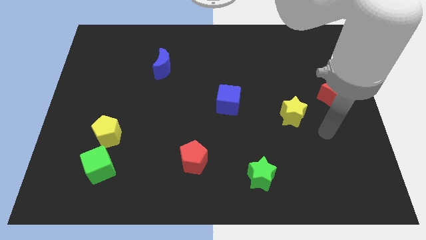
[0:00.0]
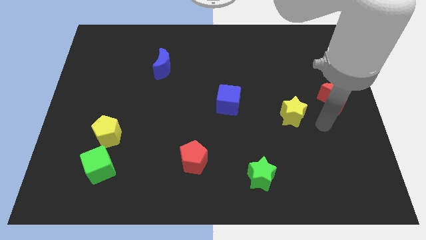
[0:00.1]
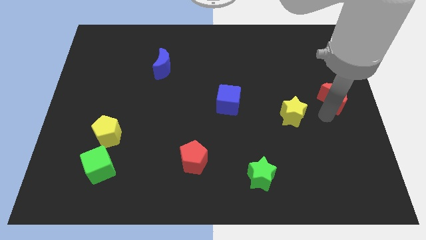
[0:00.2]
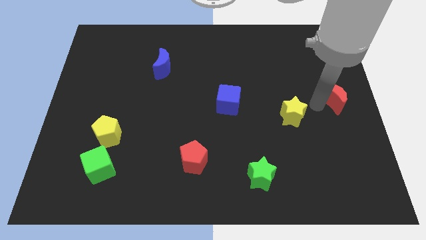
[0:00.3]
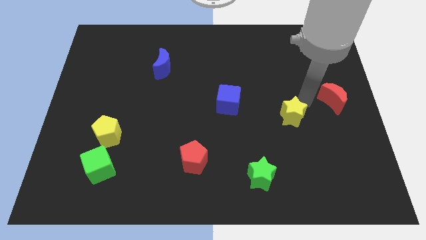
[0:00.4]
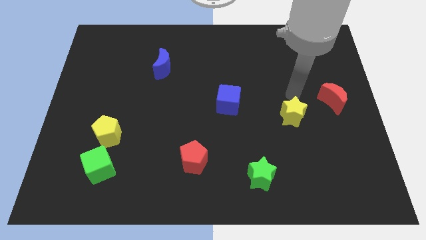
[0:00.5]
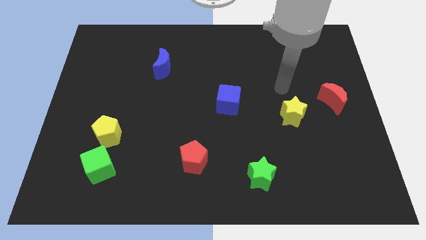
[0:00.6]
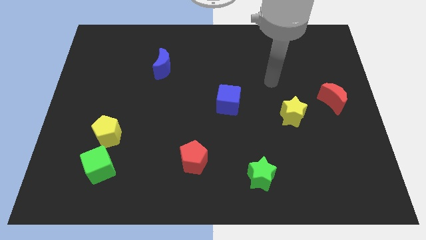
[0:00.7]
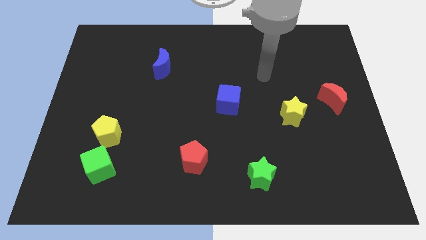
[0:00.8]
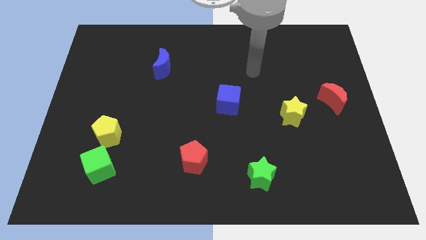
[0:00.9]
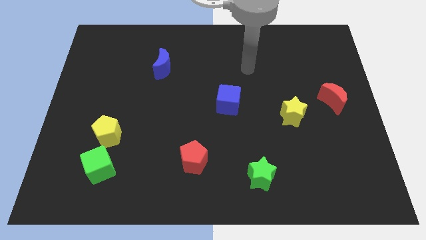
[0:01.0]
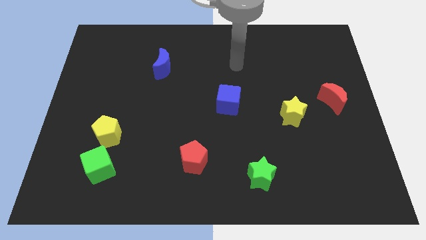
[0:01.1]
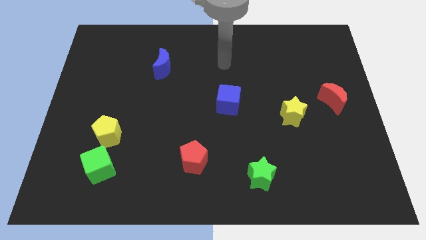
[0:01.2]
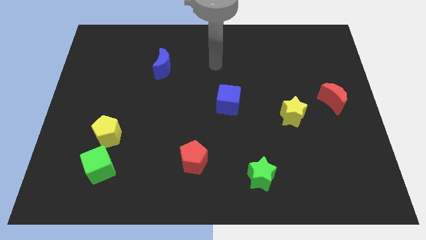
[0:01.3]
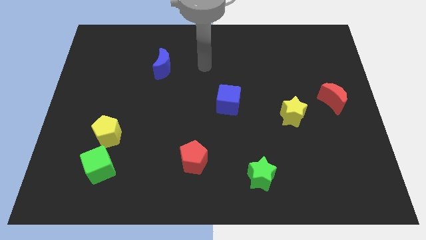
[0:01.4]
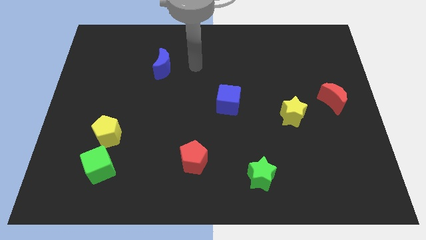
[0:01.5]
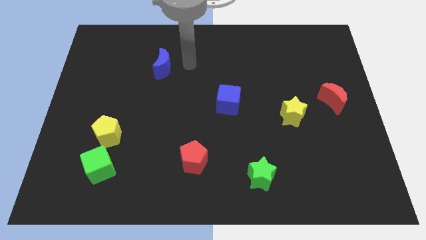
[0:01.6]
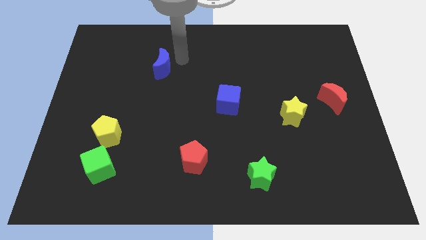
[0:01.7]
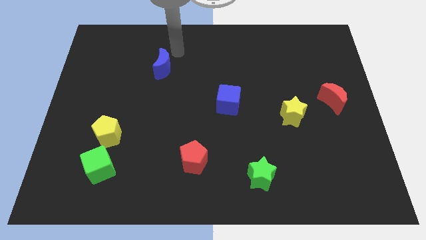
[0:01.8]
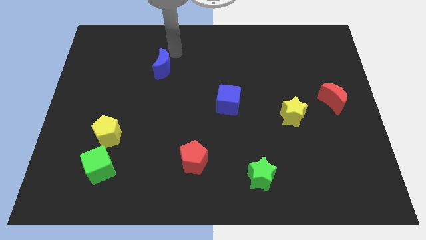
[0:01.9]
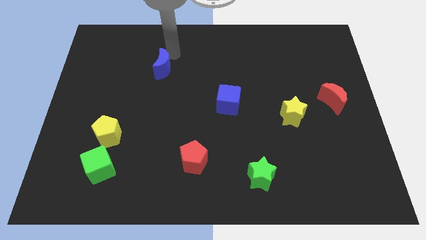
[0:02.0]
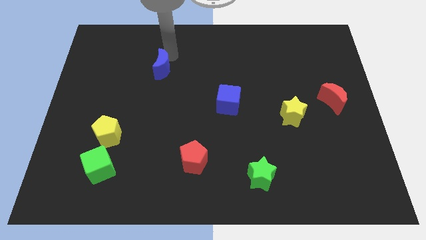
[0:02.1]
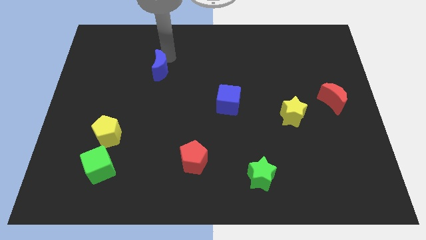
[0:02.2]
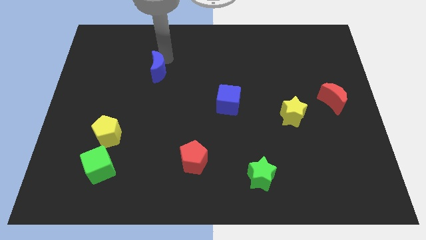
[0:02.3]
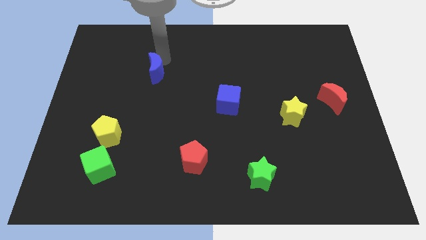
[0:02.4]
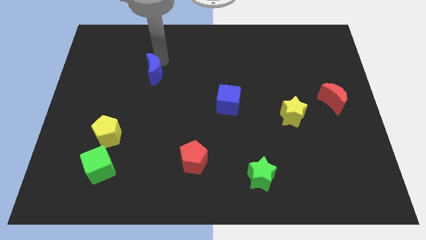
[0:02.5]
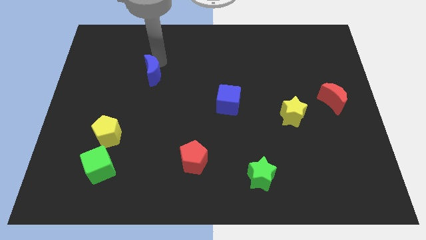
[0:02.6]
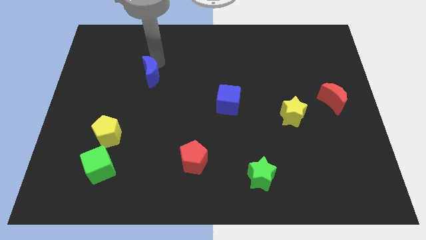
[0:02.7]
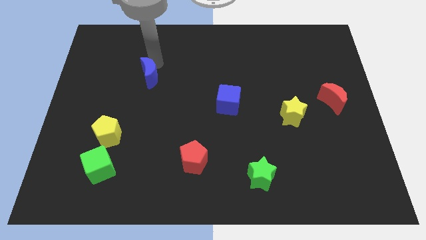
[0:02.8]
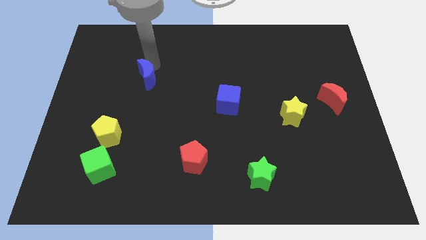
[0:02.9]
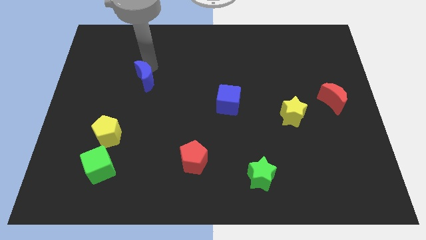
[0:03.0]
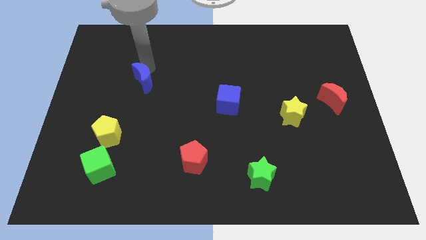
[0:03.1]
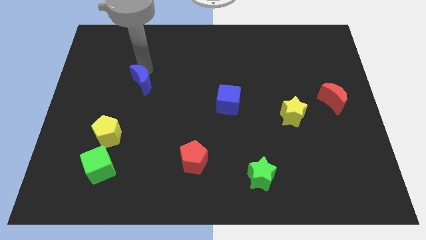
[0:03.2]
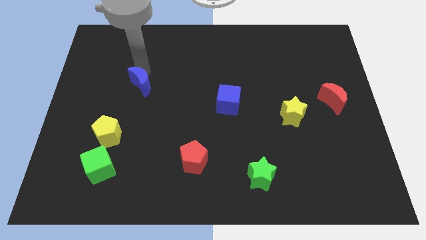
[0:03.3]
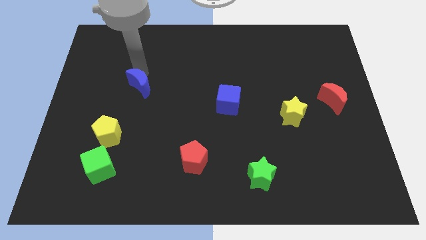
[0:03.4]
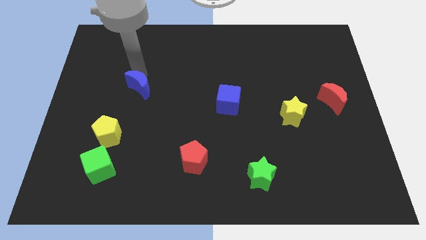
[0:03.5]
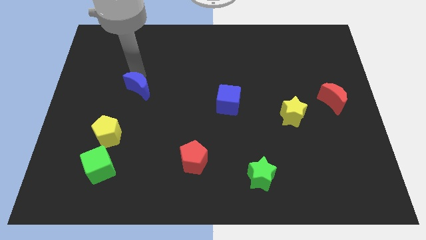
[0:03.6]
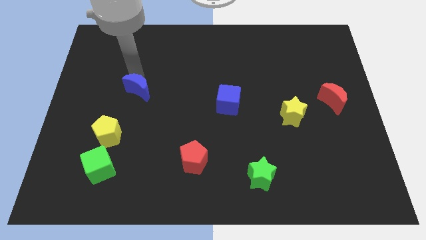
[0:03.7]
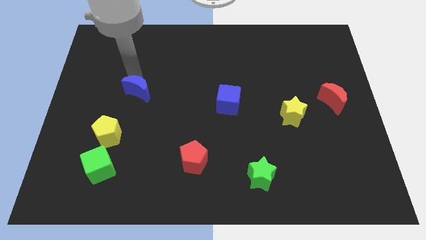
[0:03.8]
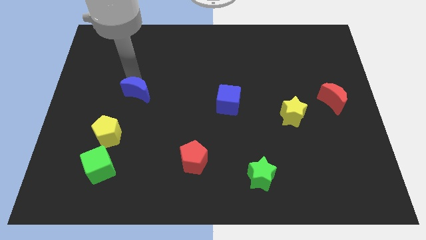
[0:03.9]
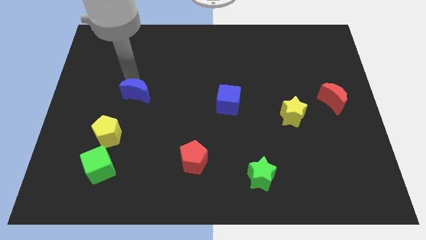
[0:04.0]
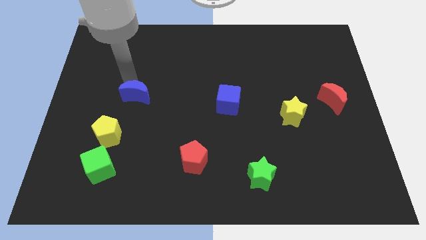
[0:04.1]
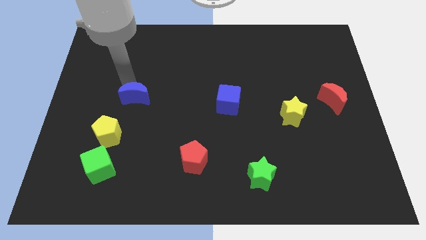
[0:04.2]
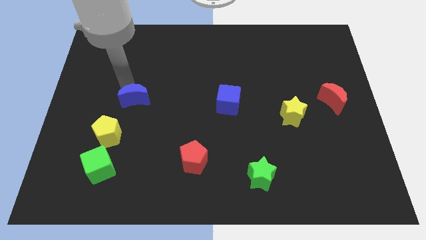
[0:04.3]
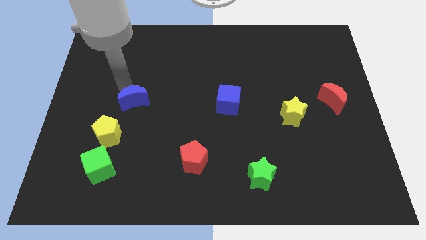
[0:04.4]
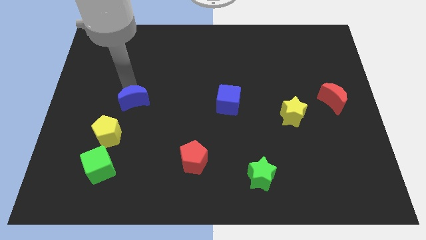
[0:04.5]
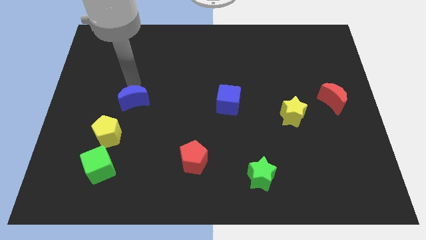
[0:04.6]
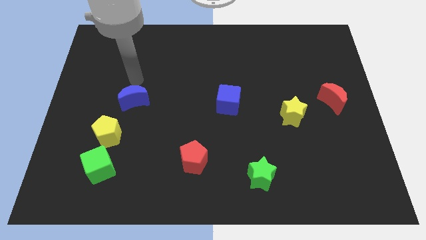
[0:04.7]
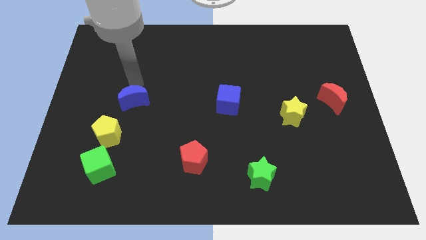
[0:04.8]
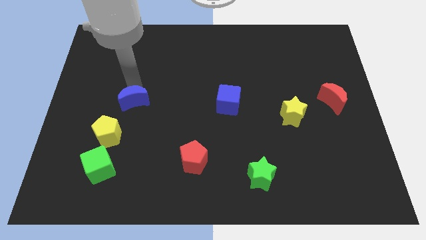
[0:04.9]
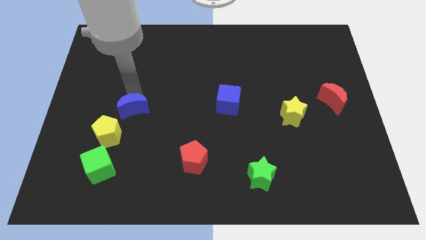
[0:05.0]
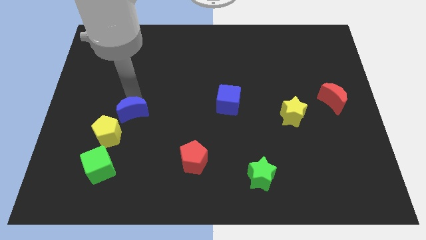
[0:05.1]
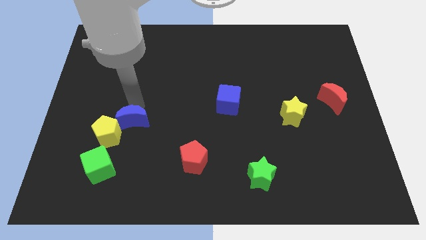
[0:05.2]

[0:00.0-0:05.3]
slide the blue moon next to the yellow pentagon

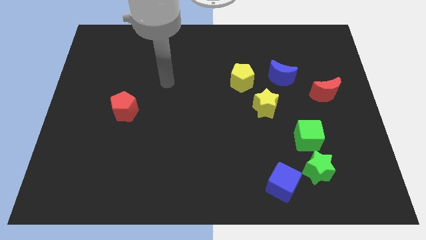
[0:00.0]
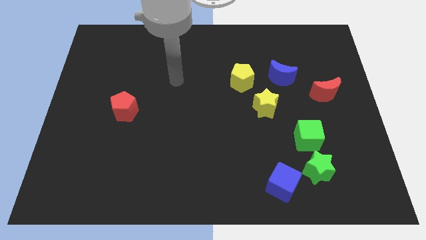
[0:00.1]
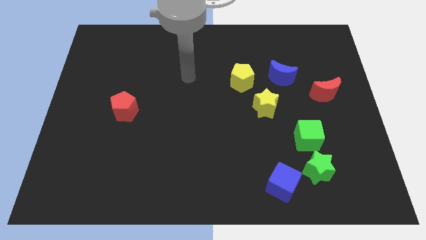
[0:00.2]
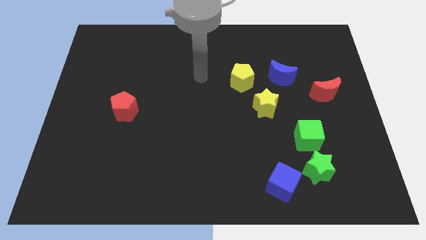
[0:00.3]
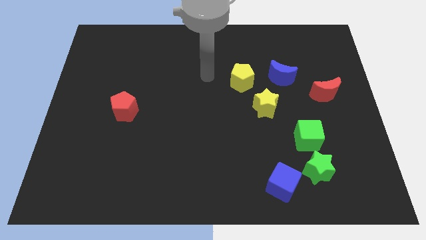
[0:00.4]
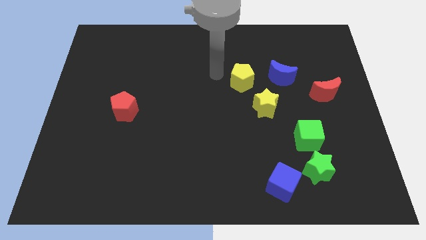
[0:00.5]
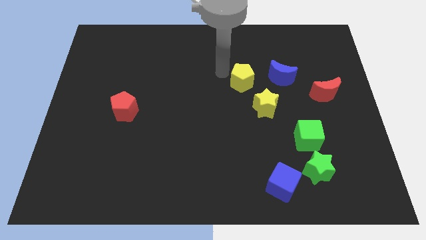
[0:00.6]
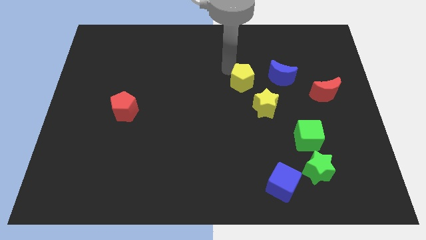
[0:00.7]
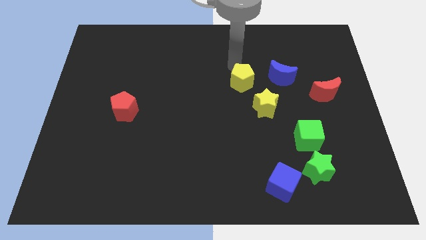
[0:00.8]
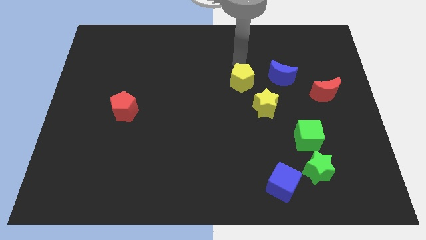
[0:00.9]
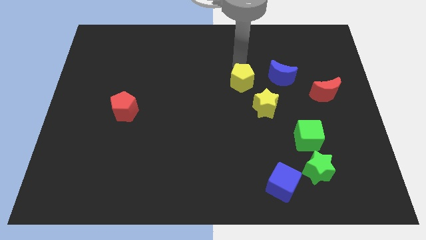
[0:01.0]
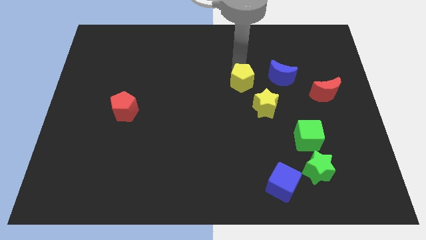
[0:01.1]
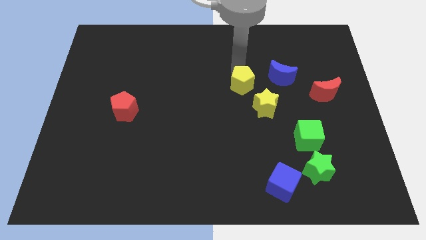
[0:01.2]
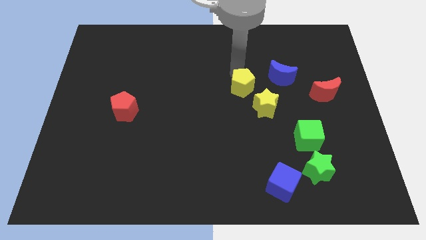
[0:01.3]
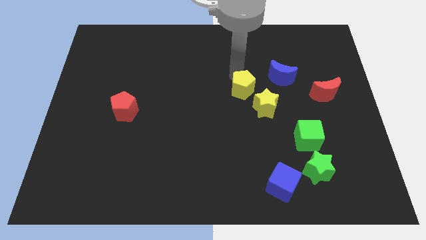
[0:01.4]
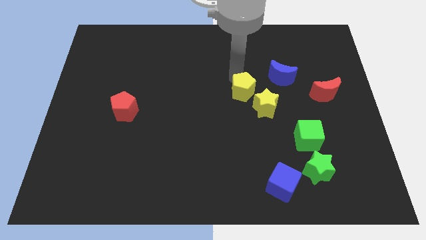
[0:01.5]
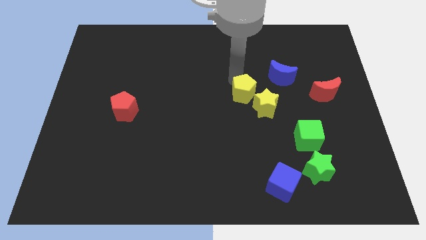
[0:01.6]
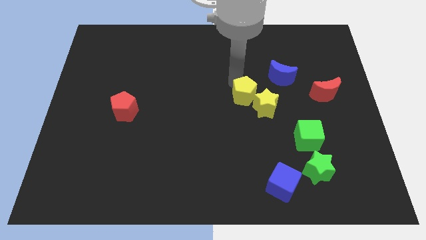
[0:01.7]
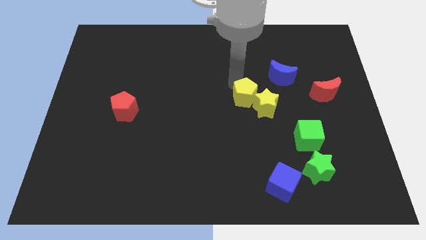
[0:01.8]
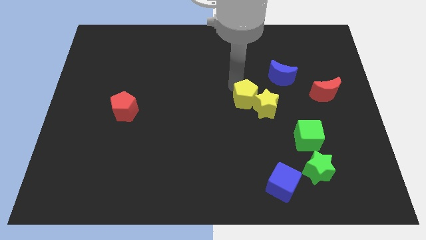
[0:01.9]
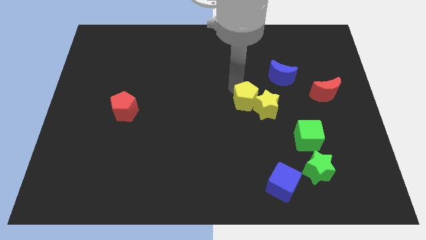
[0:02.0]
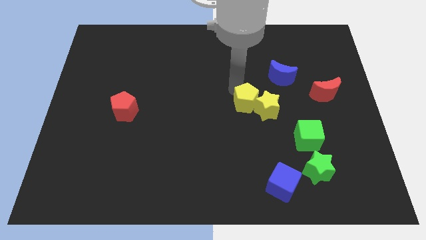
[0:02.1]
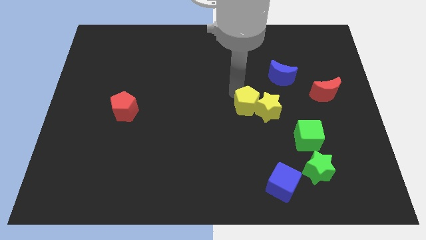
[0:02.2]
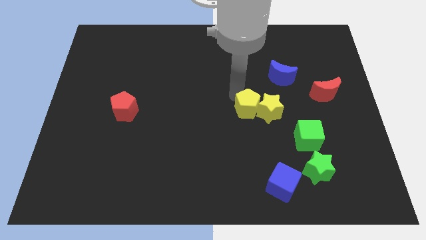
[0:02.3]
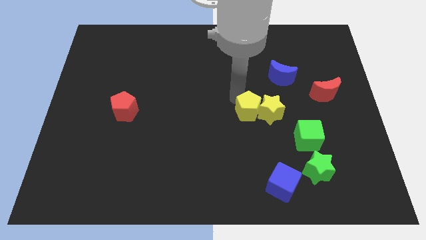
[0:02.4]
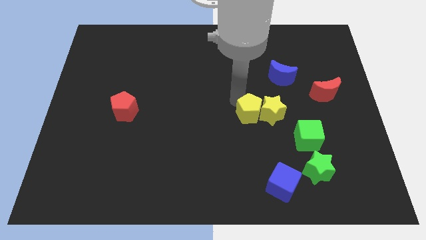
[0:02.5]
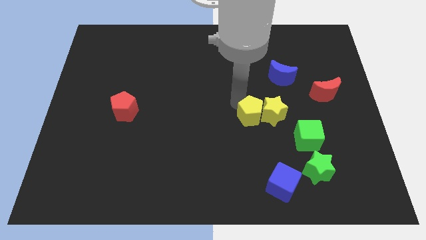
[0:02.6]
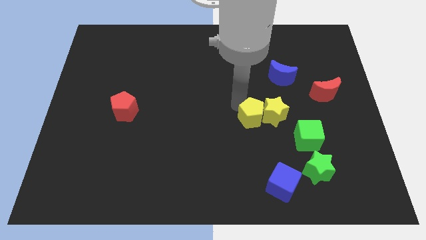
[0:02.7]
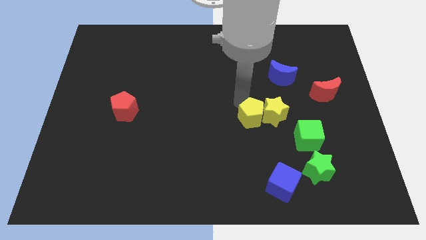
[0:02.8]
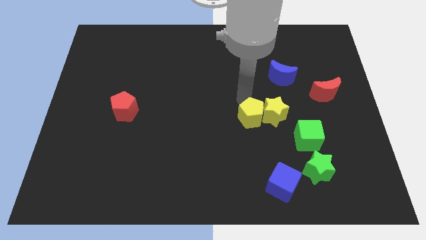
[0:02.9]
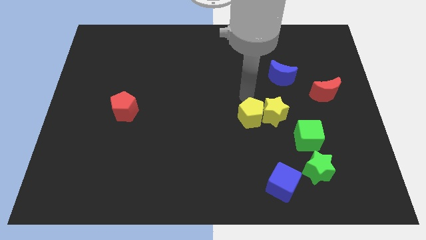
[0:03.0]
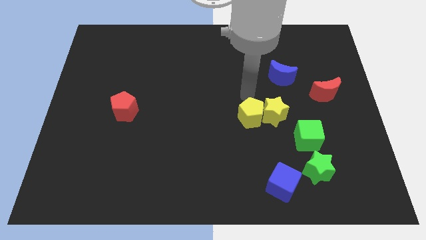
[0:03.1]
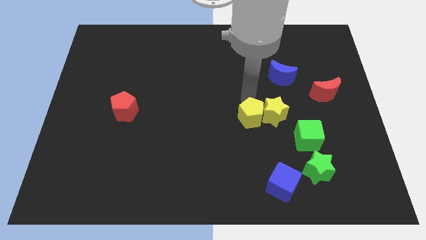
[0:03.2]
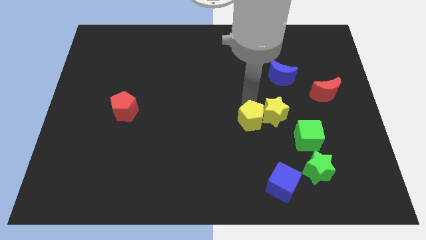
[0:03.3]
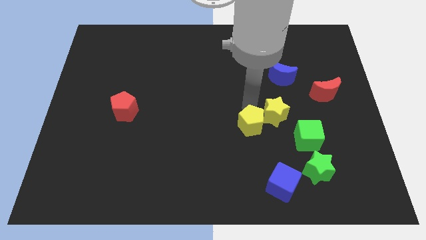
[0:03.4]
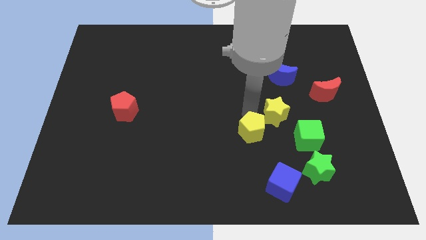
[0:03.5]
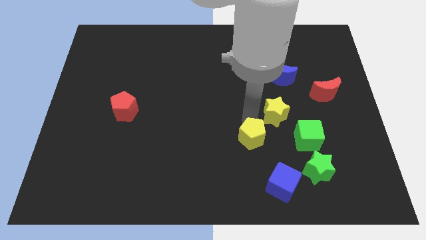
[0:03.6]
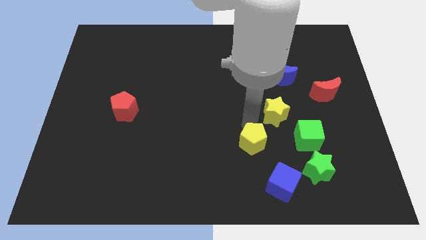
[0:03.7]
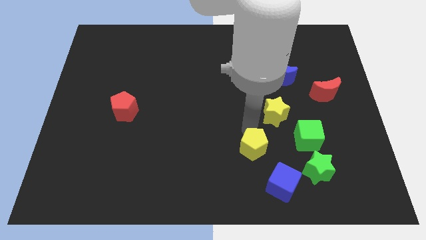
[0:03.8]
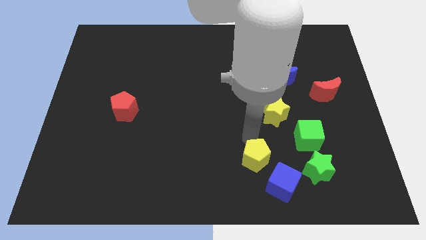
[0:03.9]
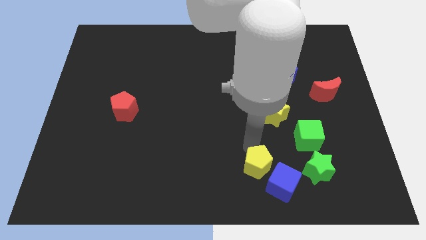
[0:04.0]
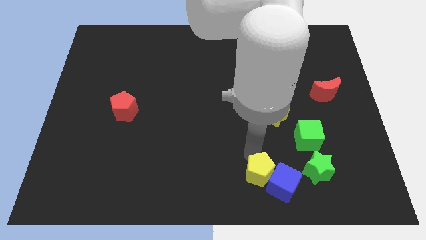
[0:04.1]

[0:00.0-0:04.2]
put the yellow pentagon towards the blue cube
